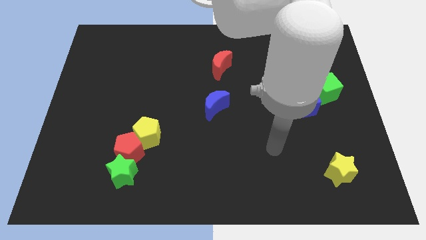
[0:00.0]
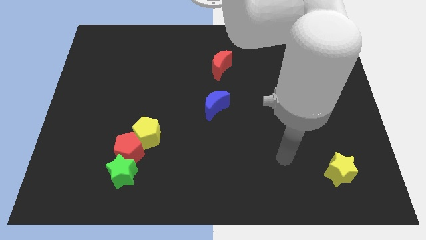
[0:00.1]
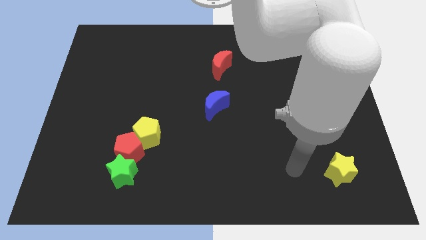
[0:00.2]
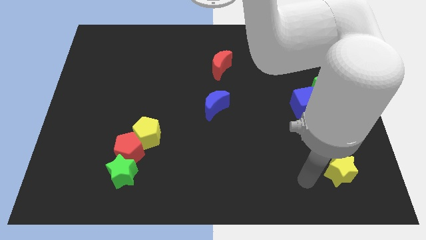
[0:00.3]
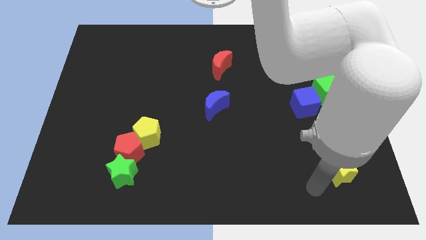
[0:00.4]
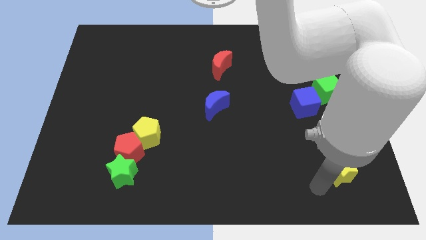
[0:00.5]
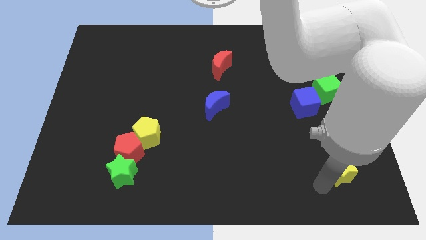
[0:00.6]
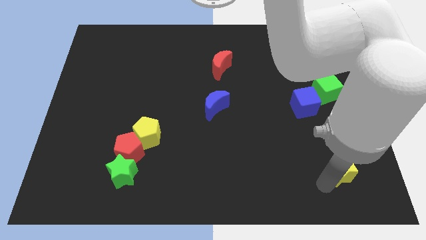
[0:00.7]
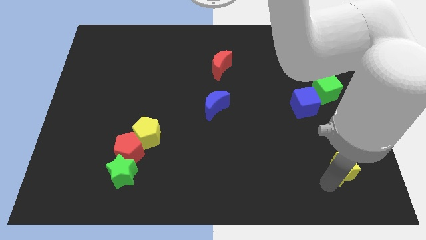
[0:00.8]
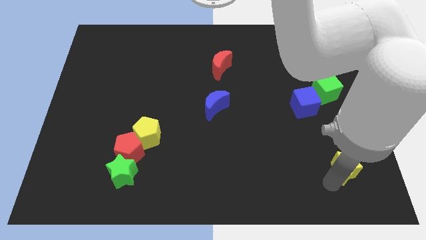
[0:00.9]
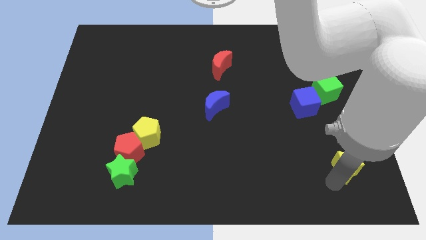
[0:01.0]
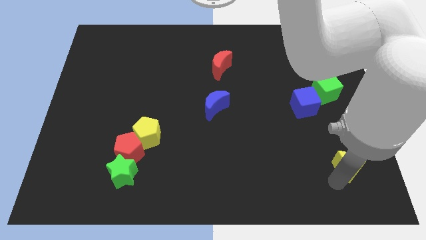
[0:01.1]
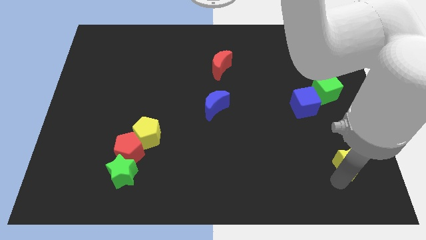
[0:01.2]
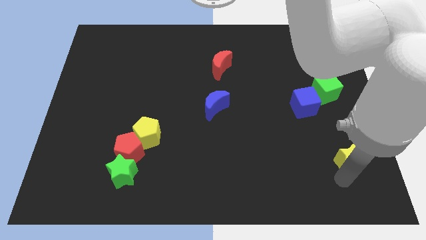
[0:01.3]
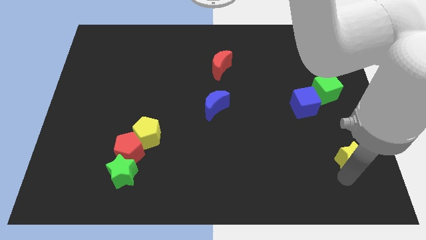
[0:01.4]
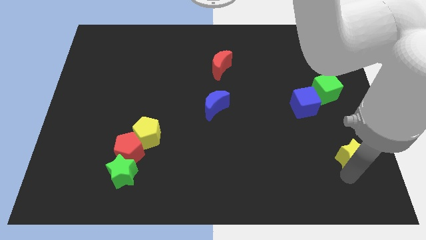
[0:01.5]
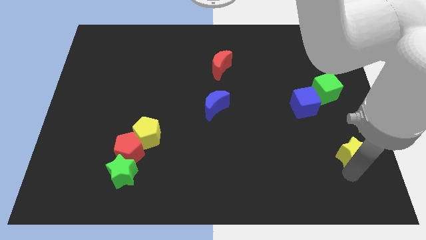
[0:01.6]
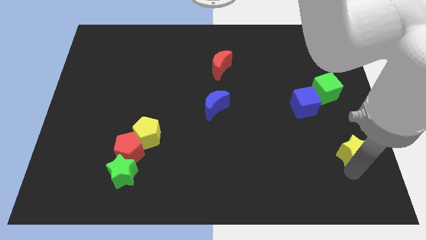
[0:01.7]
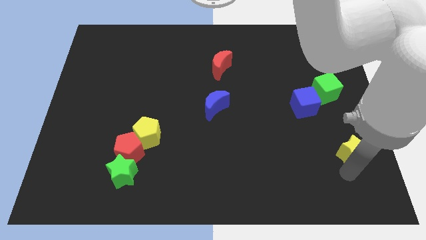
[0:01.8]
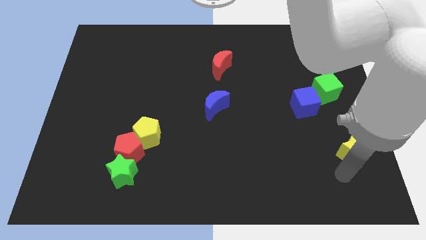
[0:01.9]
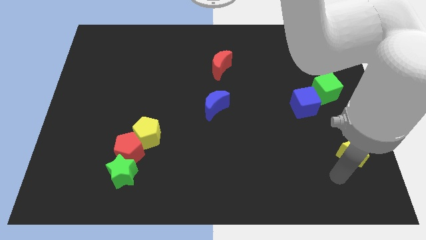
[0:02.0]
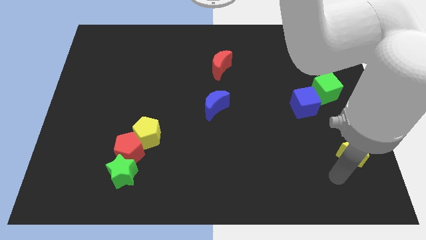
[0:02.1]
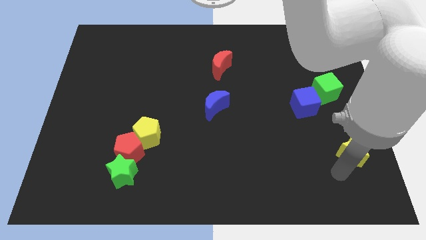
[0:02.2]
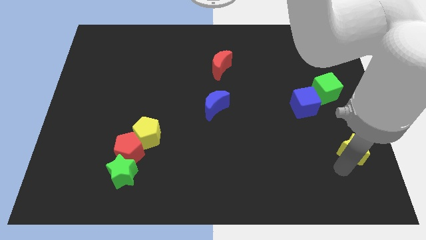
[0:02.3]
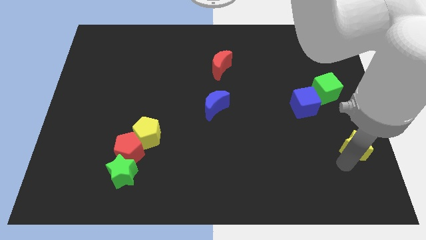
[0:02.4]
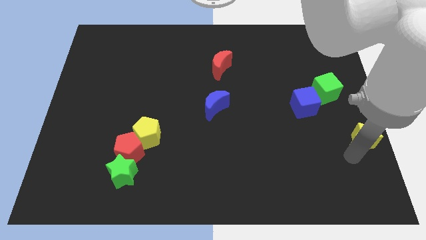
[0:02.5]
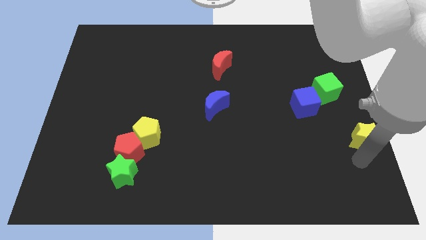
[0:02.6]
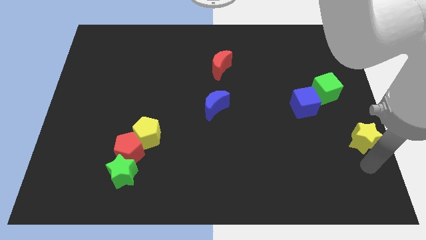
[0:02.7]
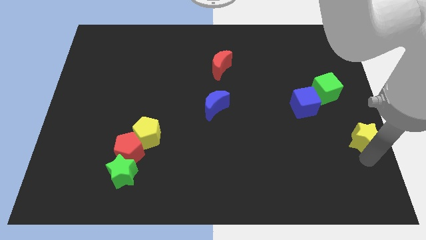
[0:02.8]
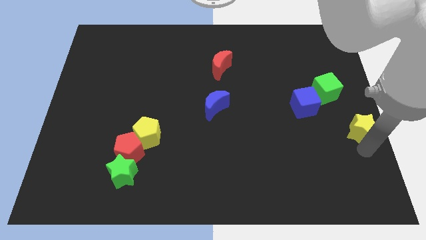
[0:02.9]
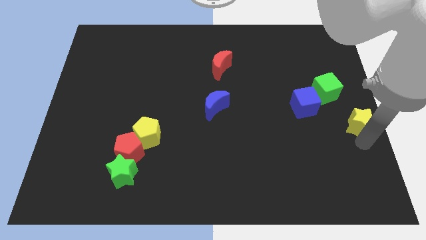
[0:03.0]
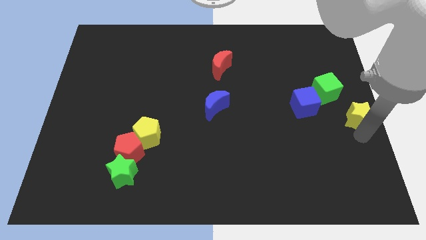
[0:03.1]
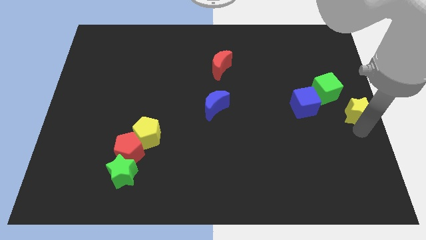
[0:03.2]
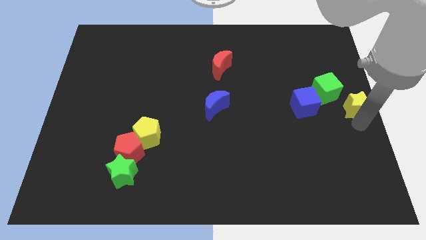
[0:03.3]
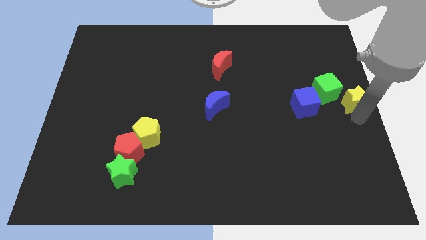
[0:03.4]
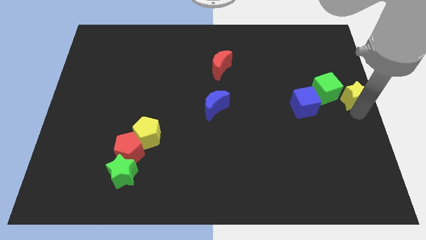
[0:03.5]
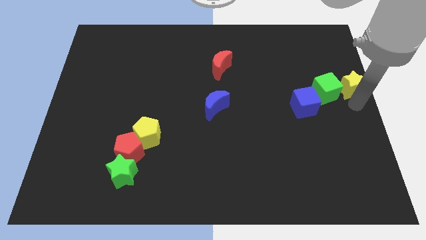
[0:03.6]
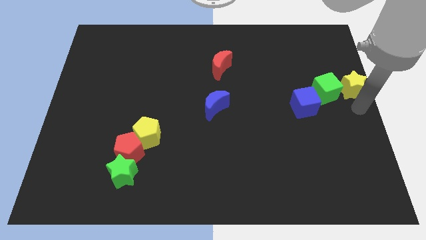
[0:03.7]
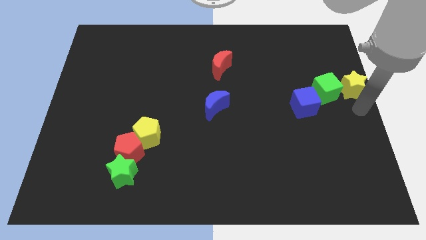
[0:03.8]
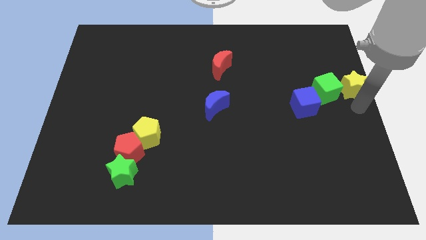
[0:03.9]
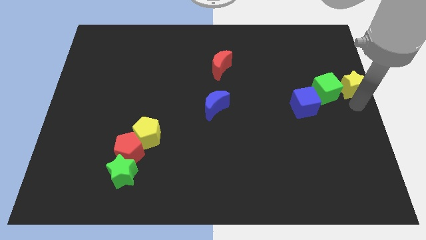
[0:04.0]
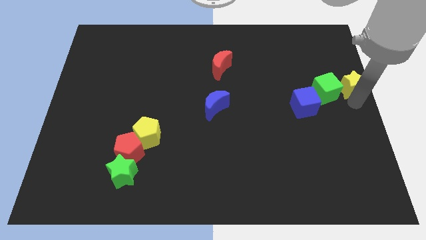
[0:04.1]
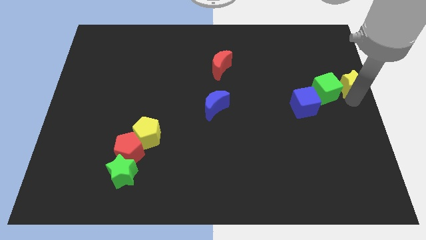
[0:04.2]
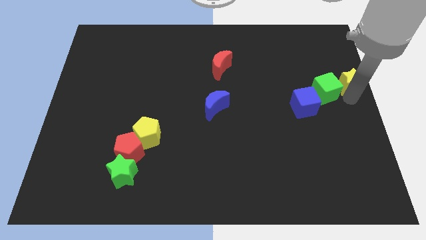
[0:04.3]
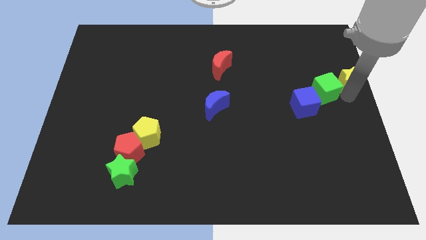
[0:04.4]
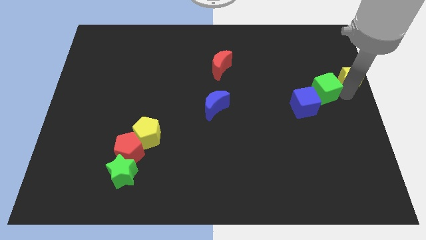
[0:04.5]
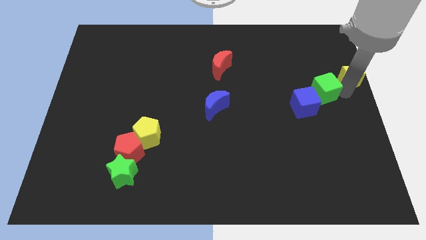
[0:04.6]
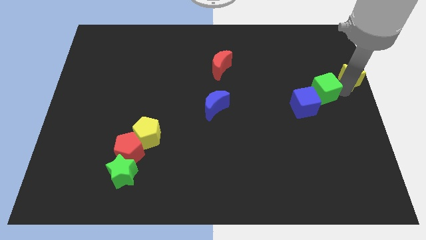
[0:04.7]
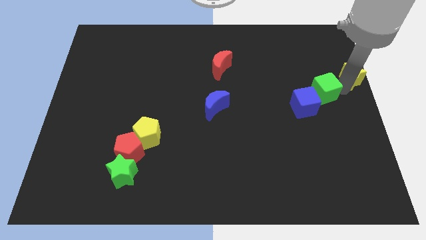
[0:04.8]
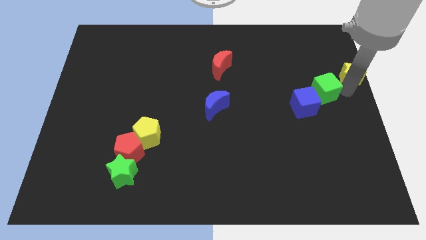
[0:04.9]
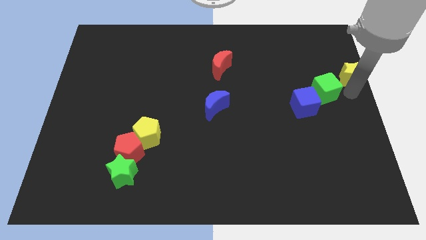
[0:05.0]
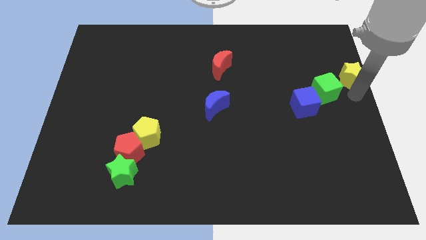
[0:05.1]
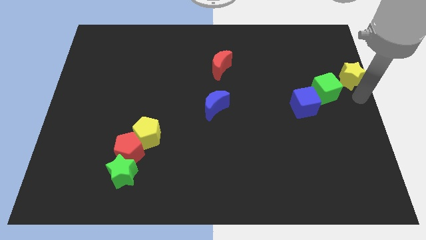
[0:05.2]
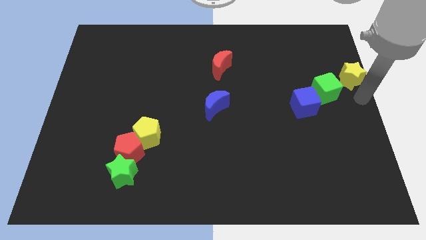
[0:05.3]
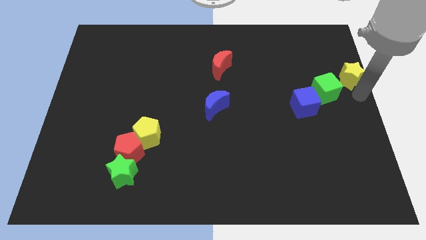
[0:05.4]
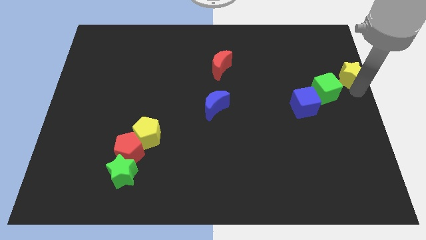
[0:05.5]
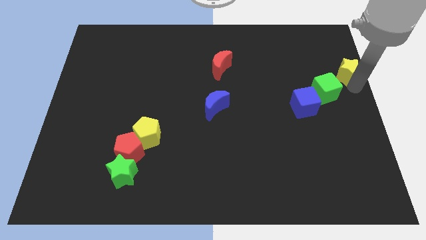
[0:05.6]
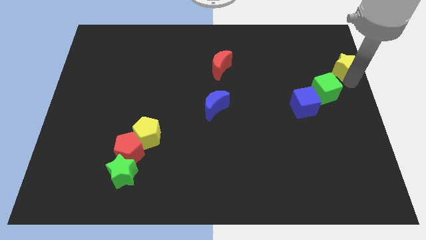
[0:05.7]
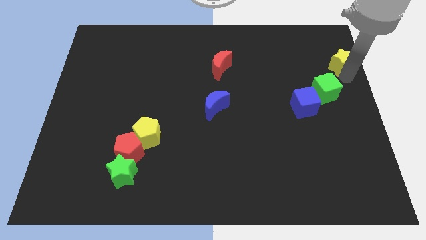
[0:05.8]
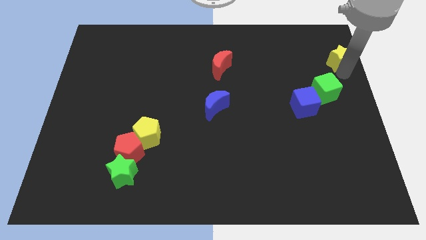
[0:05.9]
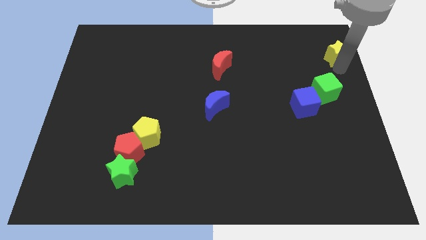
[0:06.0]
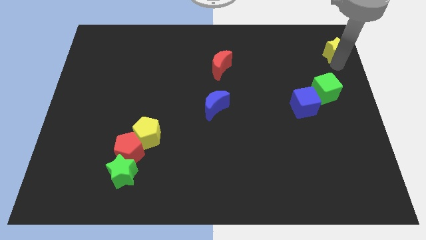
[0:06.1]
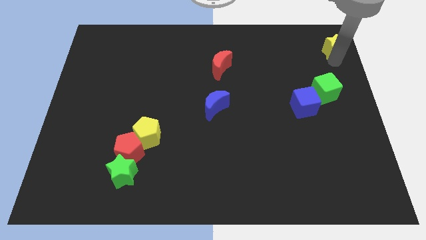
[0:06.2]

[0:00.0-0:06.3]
put the yellow star to the top right
